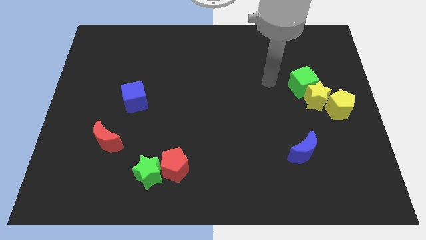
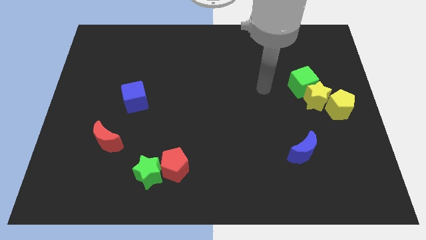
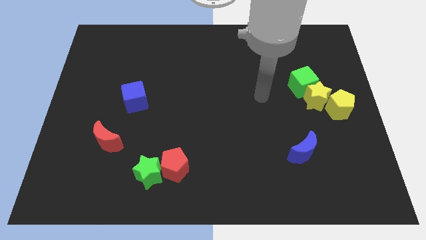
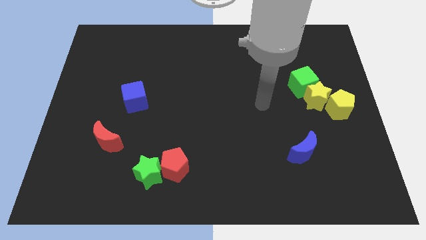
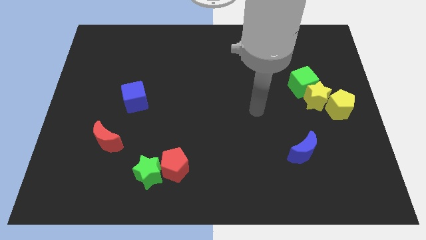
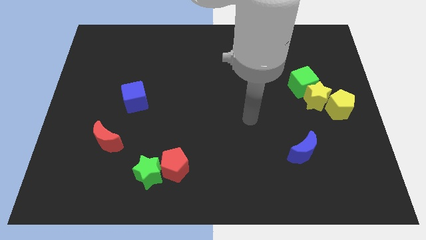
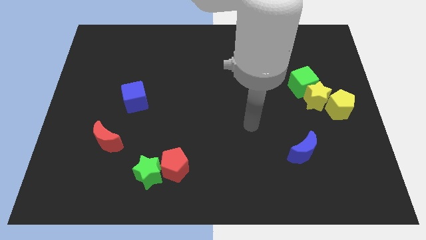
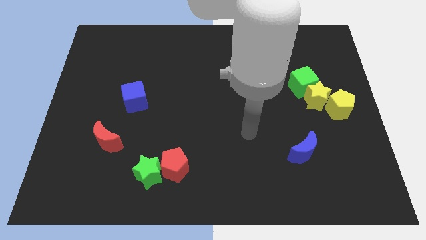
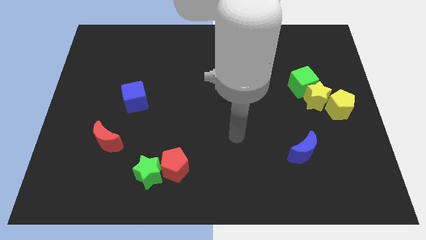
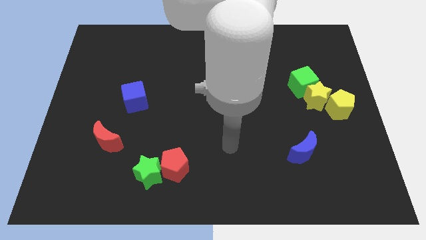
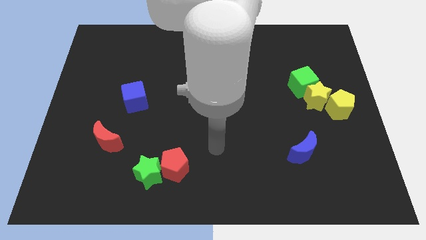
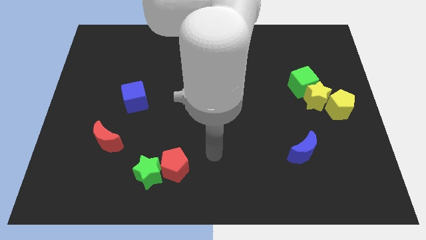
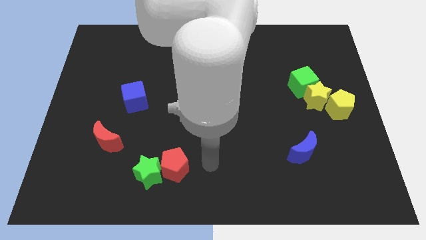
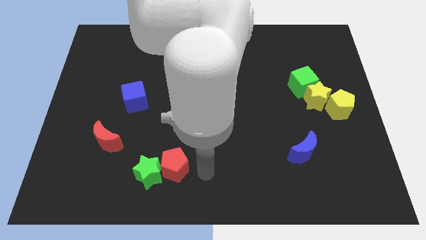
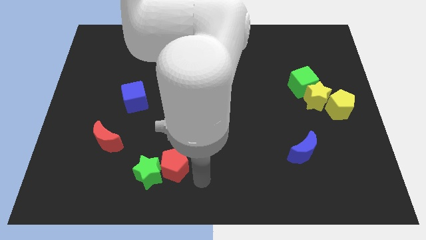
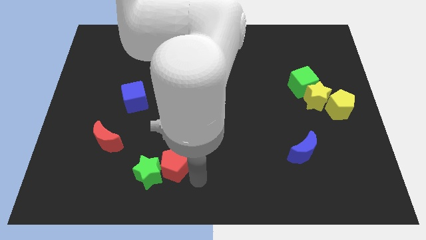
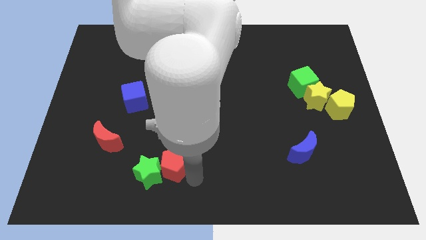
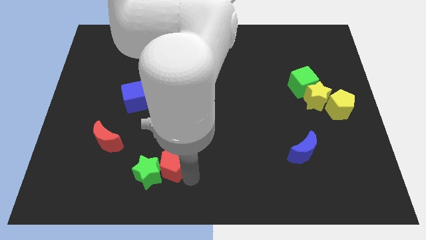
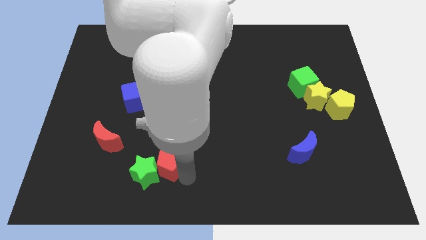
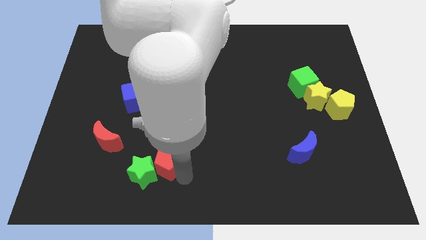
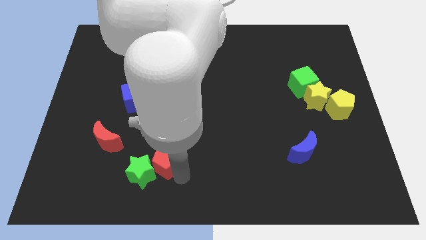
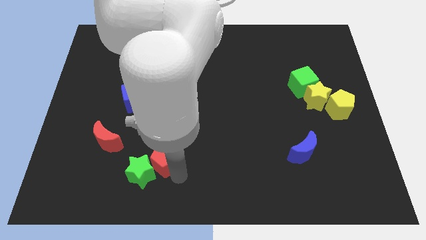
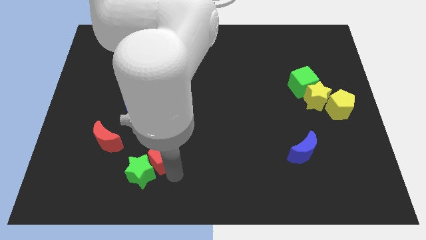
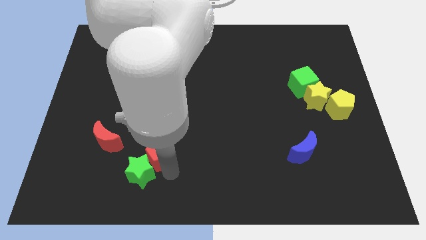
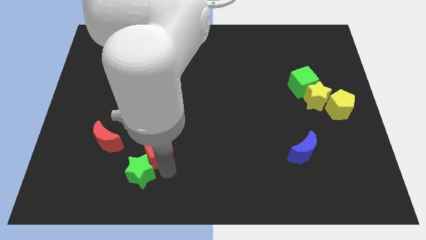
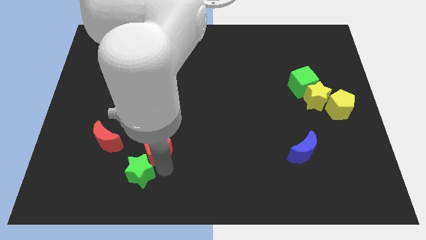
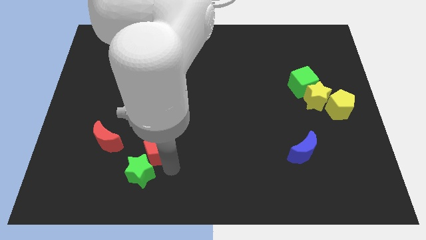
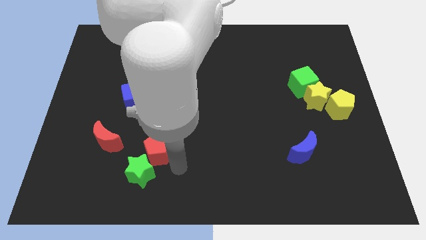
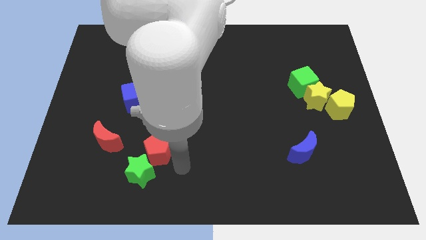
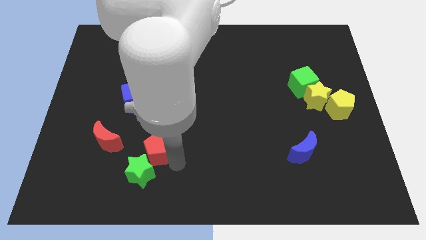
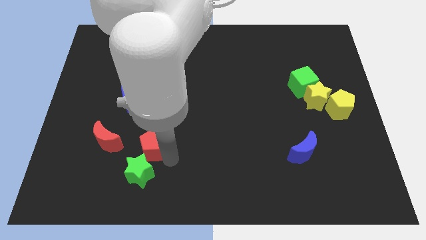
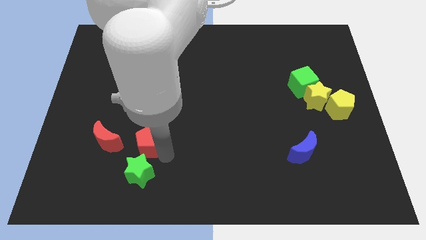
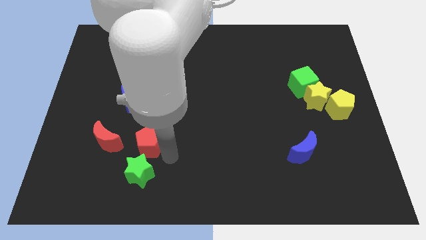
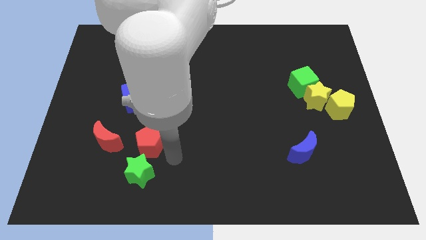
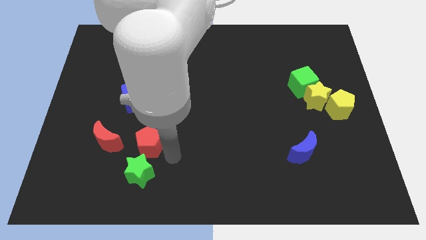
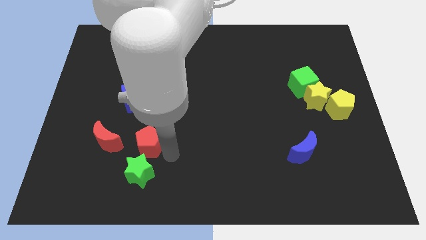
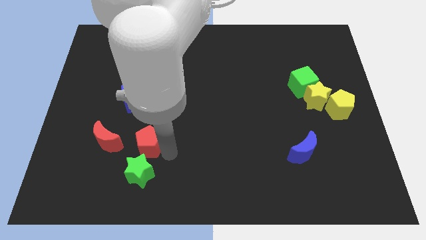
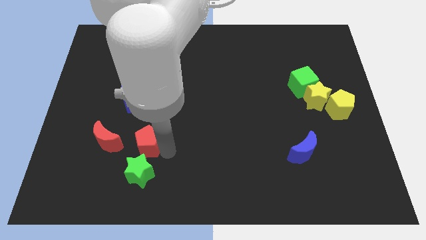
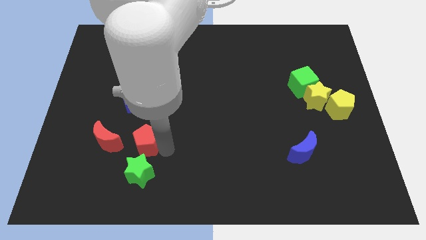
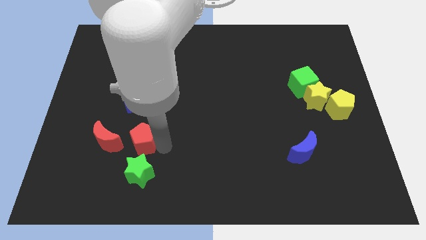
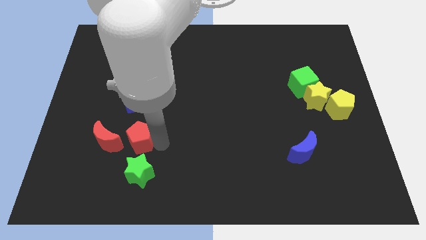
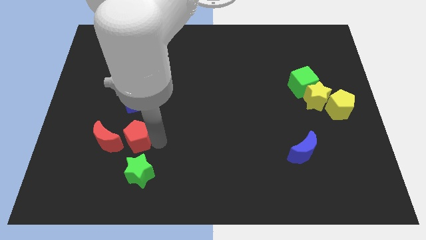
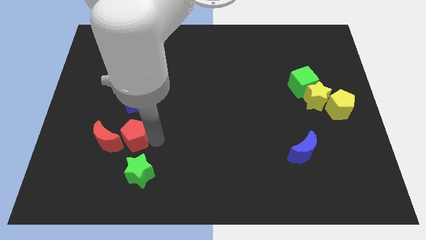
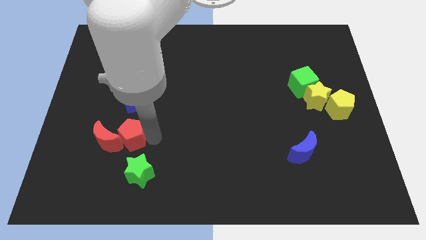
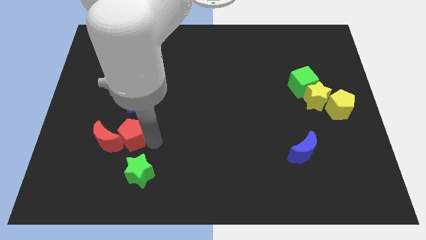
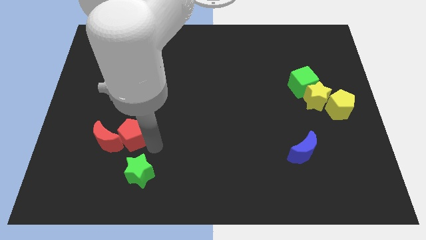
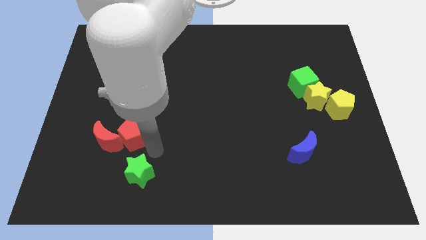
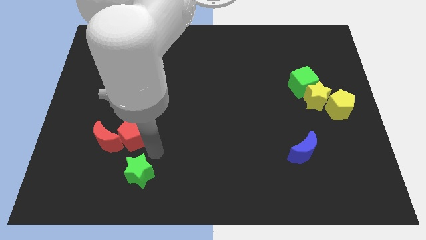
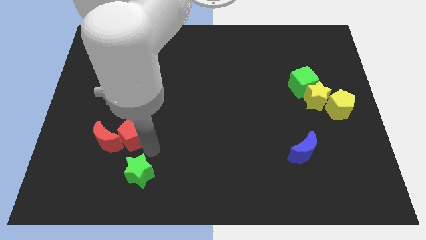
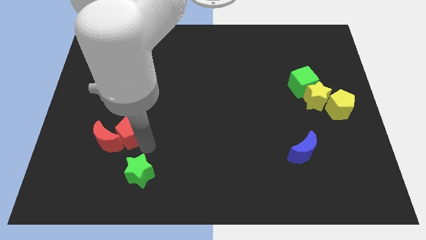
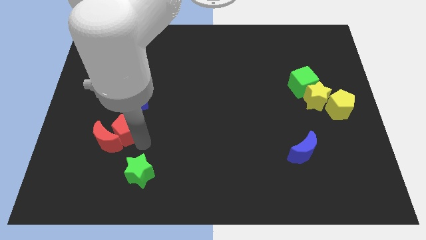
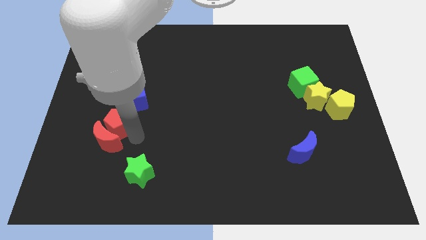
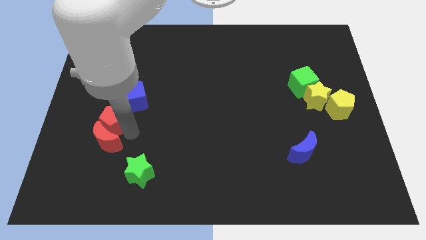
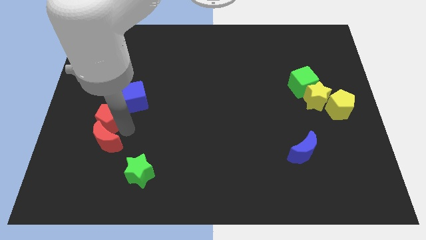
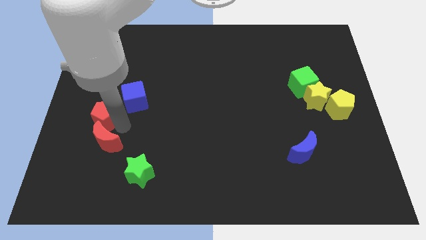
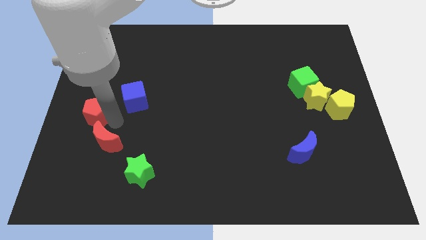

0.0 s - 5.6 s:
put the red pentagon to the left side

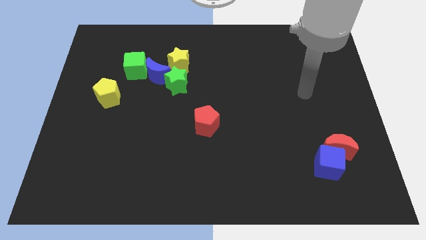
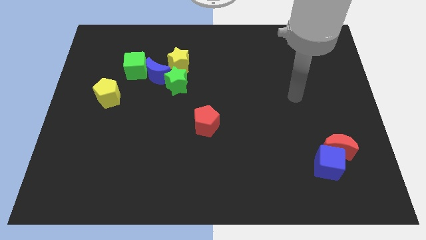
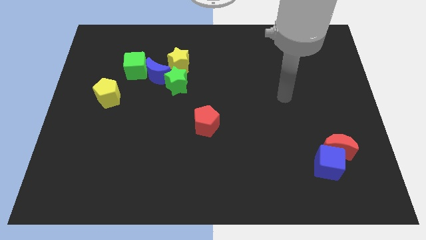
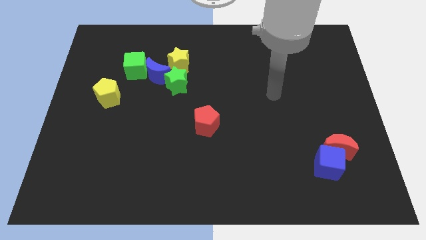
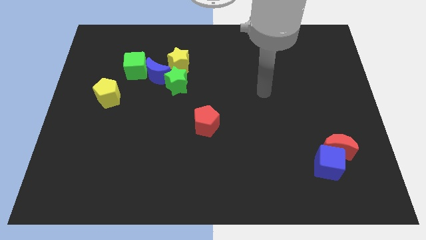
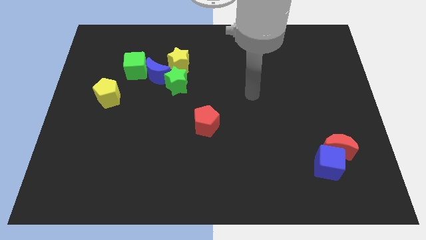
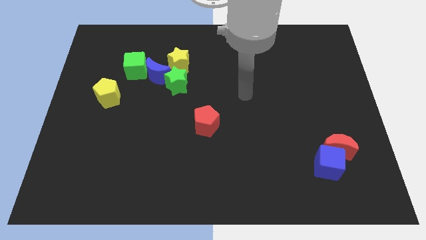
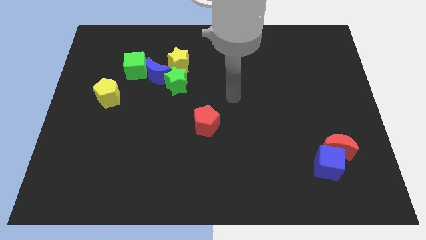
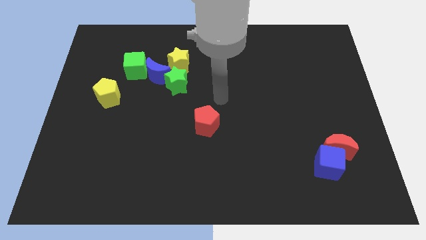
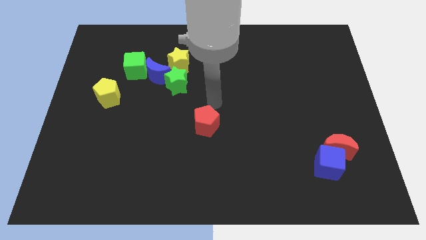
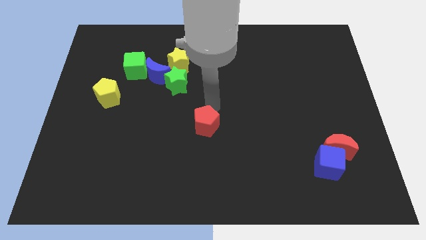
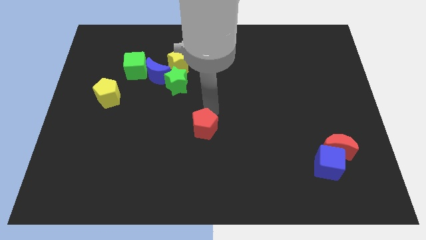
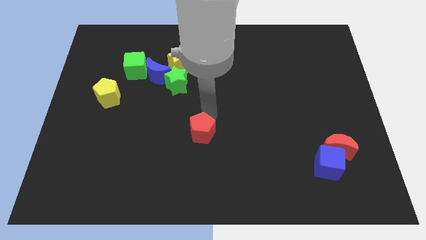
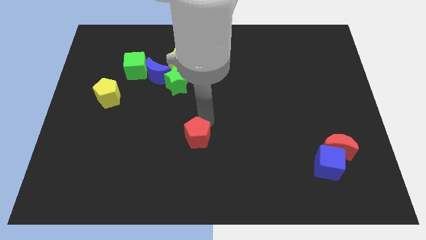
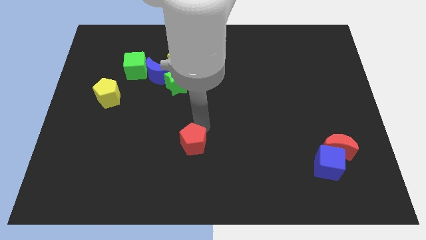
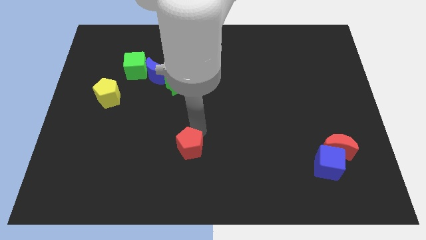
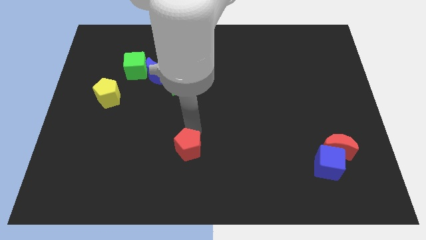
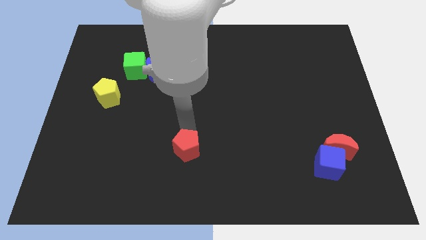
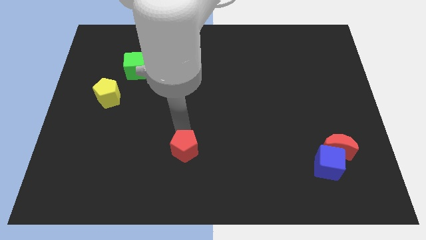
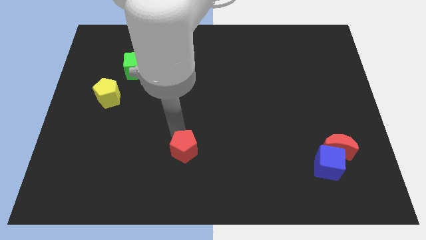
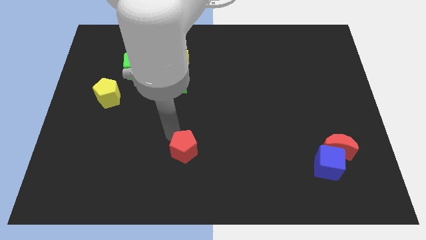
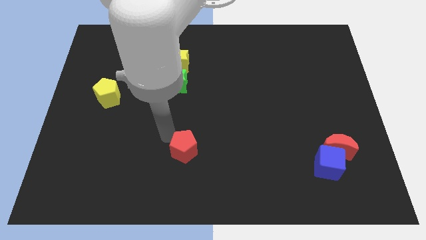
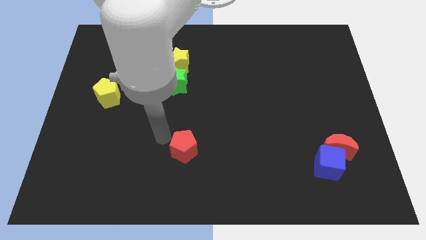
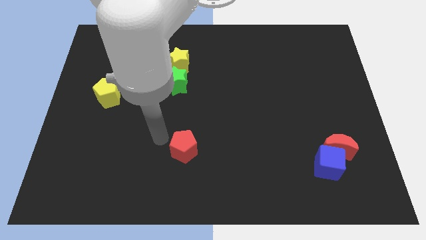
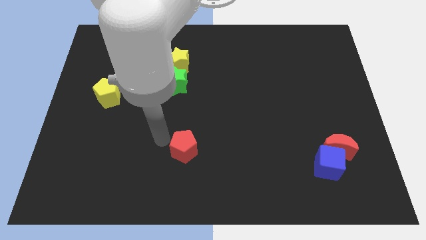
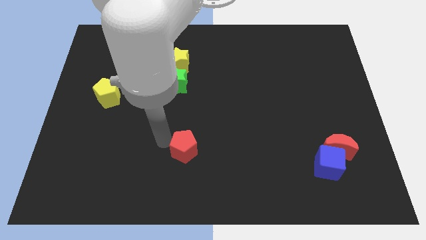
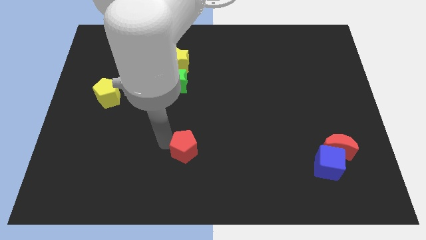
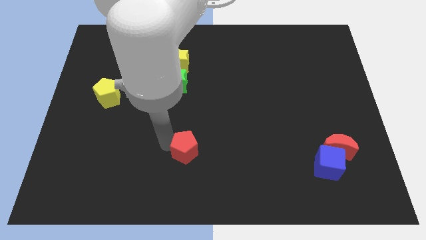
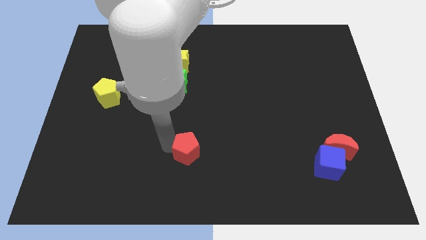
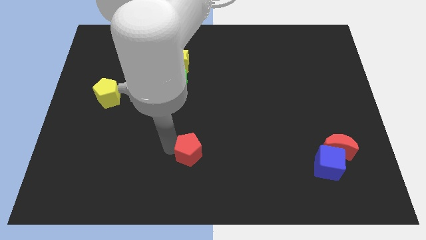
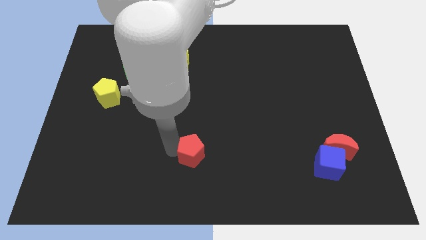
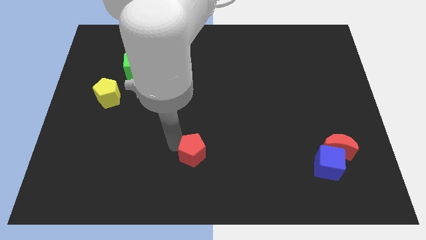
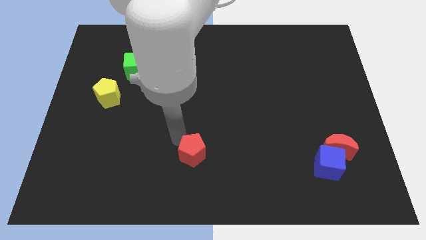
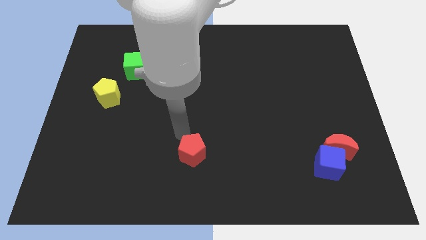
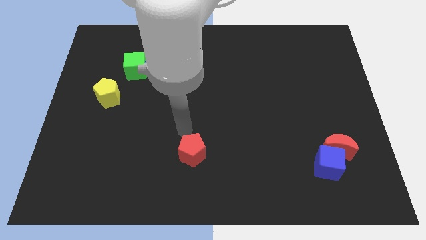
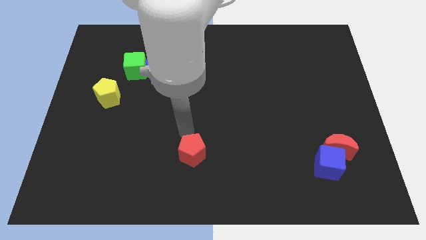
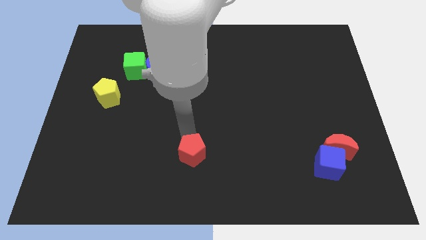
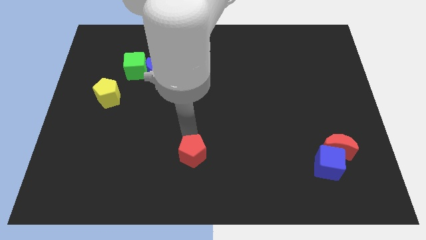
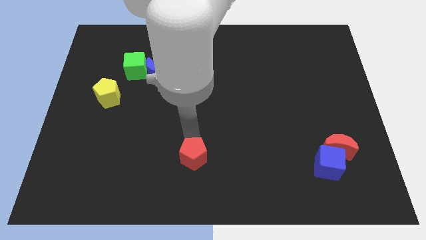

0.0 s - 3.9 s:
put the red pentagon to the bottom side
